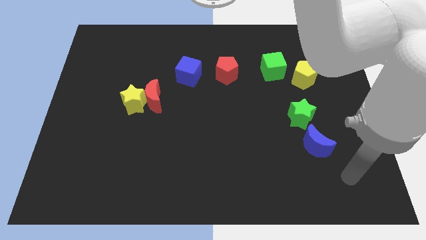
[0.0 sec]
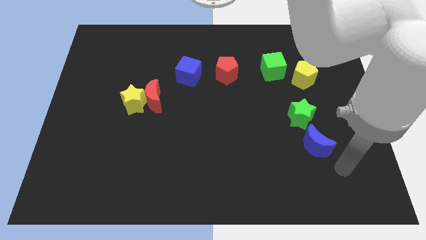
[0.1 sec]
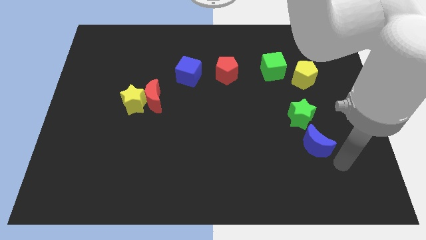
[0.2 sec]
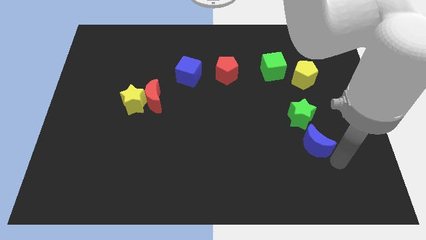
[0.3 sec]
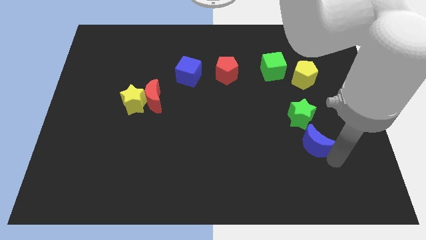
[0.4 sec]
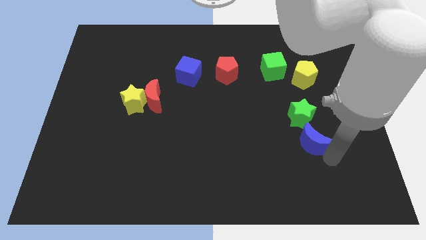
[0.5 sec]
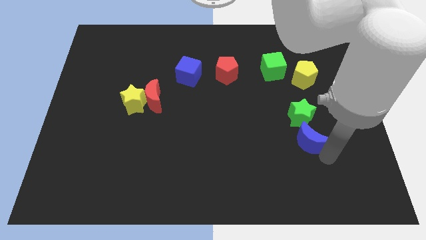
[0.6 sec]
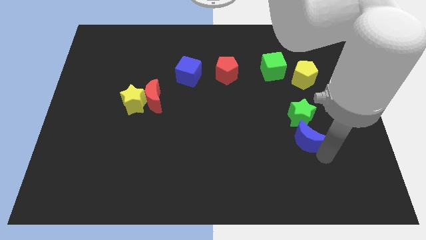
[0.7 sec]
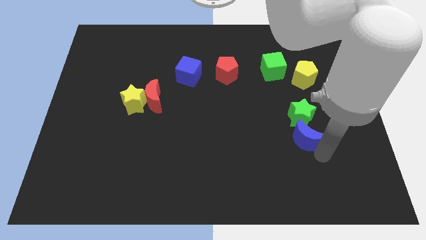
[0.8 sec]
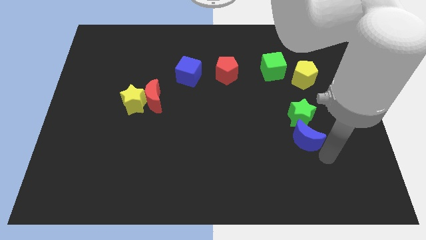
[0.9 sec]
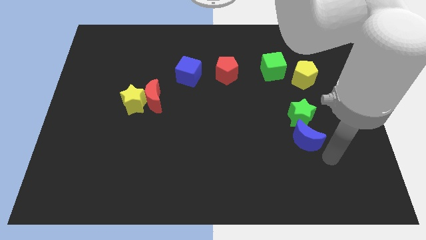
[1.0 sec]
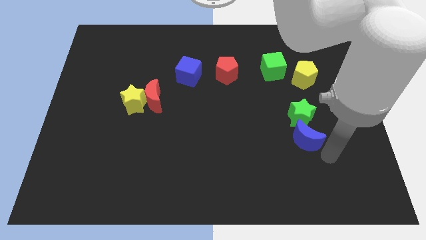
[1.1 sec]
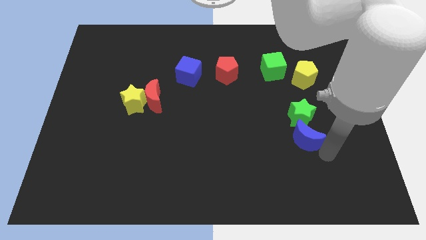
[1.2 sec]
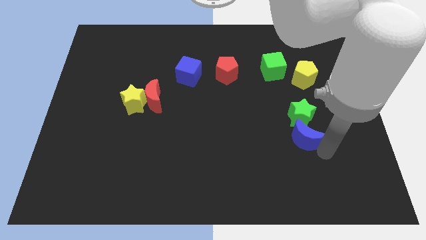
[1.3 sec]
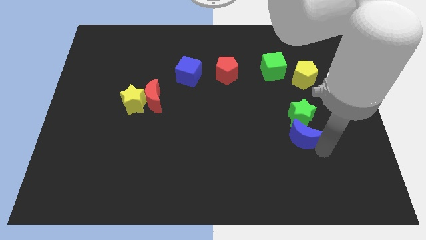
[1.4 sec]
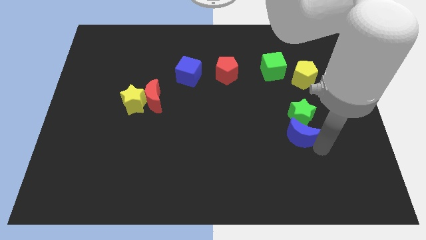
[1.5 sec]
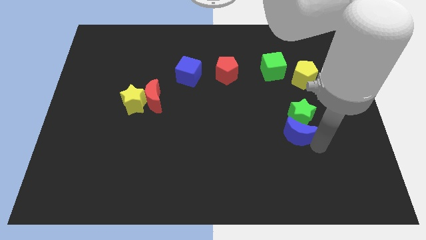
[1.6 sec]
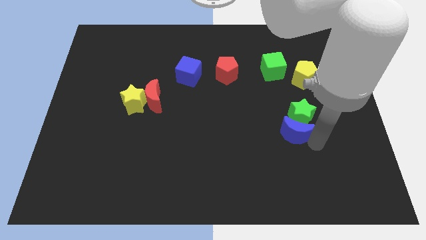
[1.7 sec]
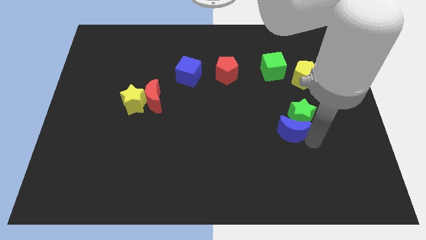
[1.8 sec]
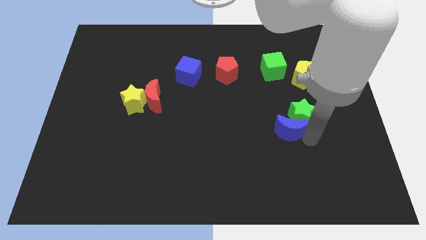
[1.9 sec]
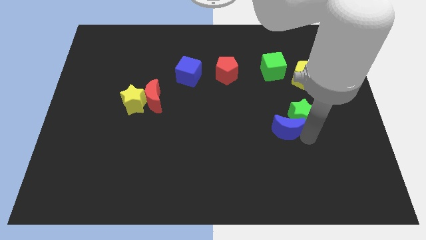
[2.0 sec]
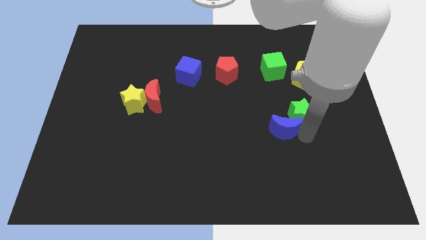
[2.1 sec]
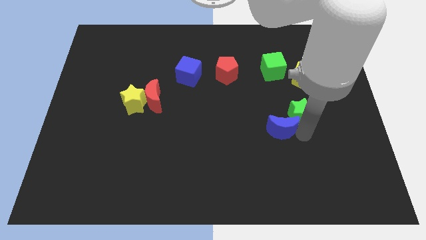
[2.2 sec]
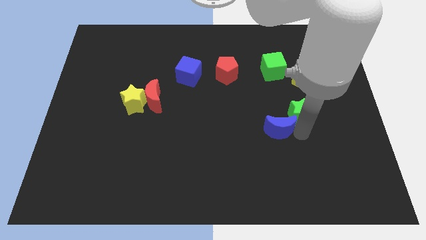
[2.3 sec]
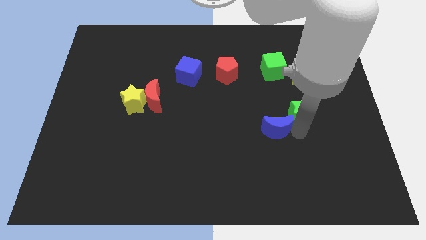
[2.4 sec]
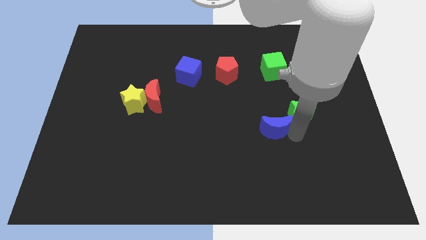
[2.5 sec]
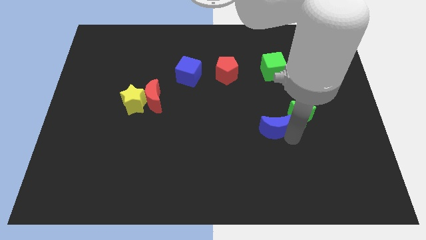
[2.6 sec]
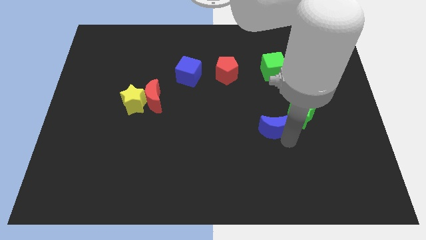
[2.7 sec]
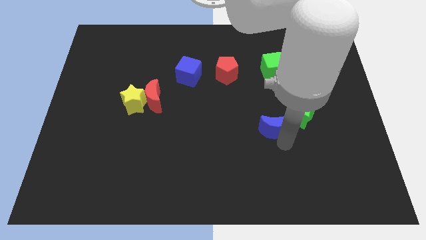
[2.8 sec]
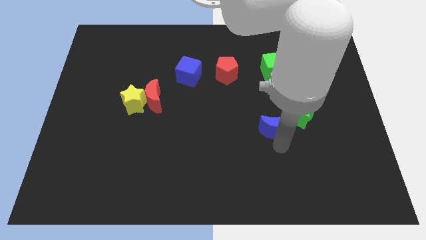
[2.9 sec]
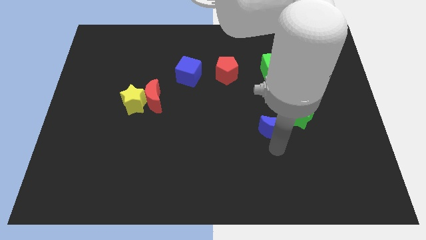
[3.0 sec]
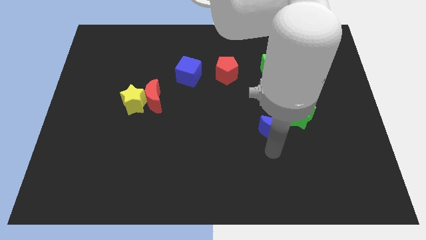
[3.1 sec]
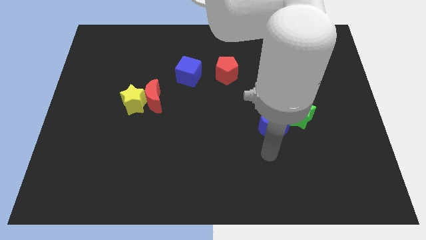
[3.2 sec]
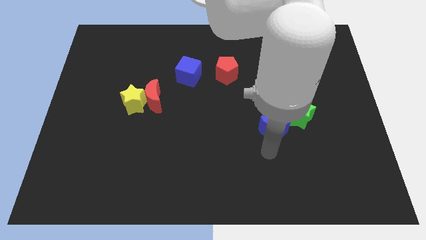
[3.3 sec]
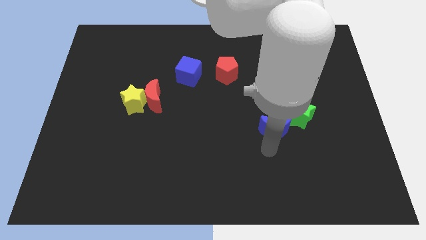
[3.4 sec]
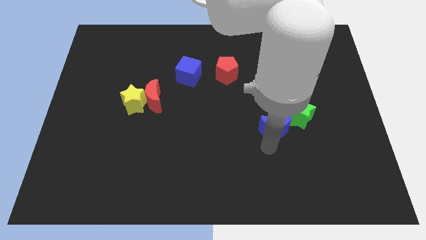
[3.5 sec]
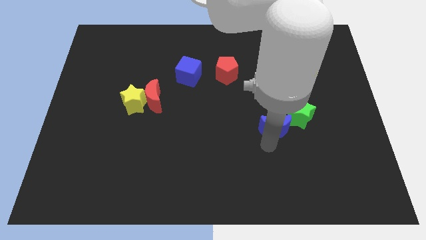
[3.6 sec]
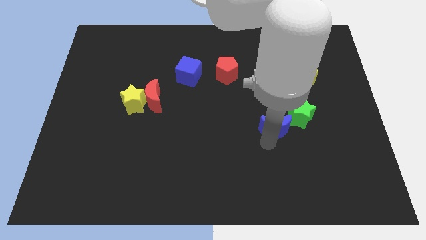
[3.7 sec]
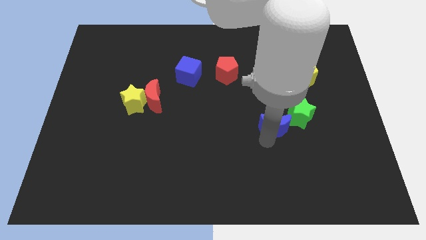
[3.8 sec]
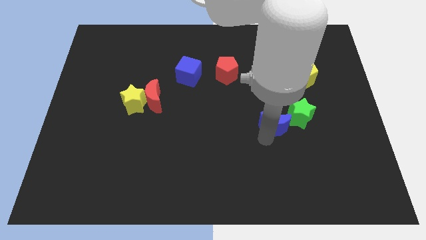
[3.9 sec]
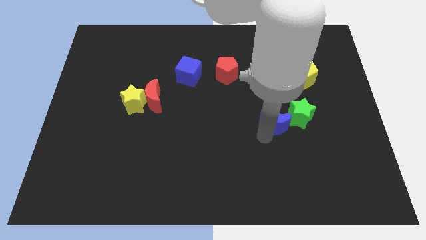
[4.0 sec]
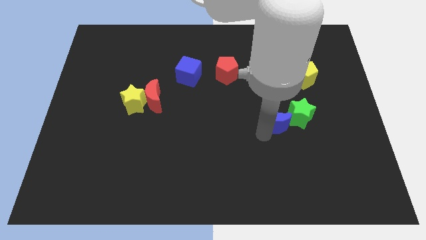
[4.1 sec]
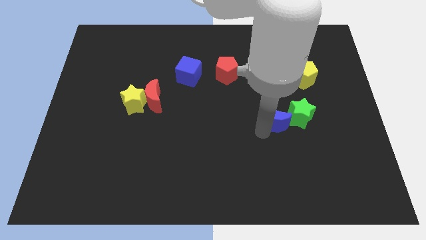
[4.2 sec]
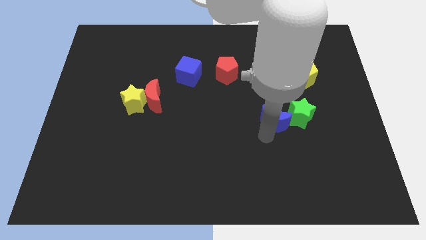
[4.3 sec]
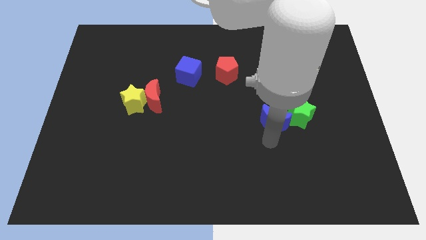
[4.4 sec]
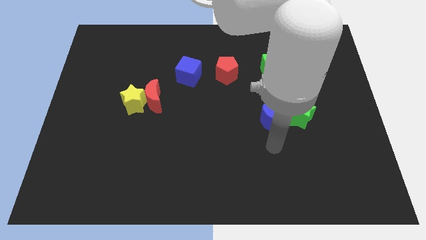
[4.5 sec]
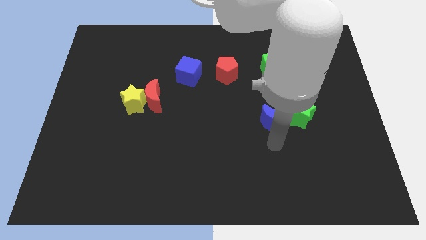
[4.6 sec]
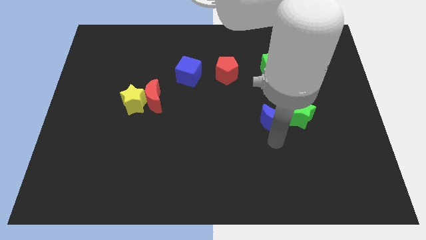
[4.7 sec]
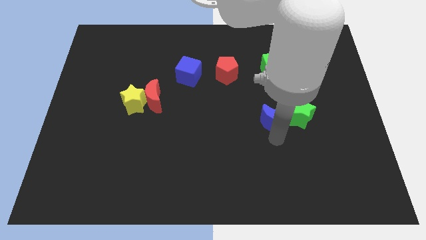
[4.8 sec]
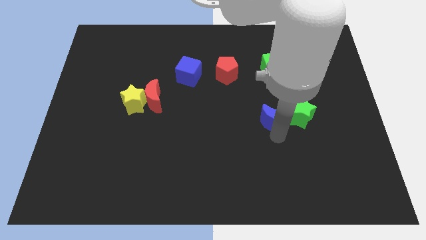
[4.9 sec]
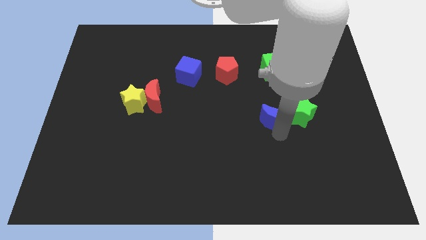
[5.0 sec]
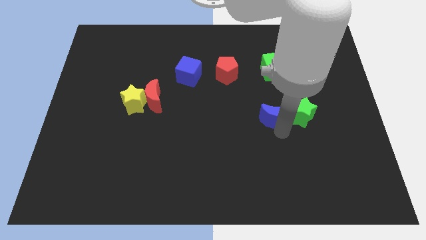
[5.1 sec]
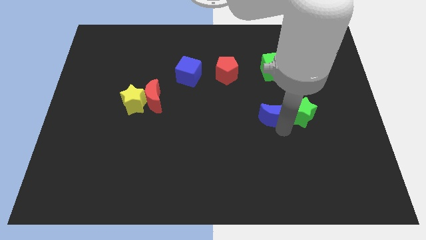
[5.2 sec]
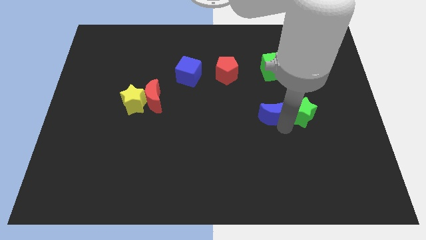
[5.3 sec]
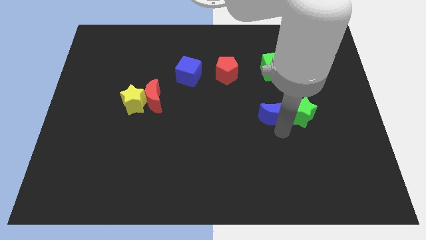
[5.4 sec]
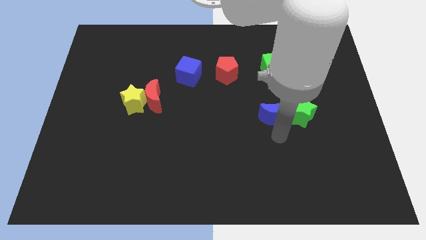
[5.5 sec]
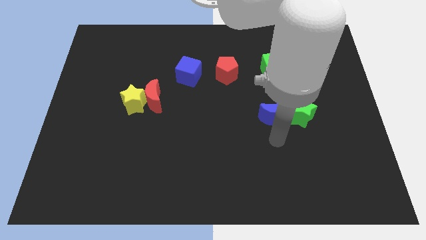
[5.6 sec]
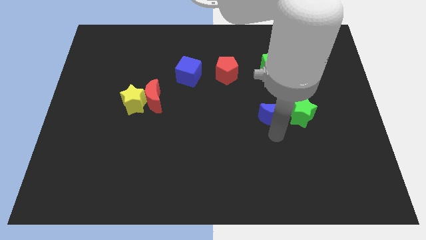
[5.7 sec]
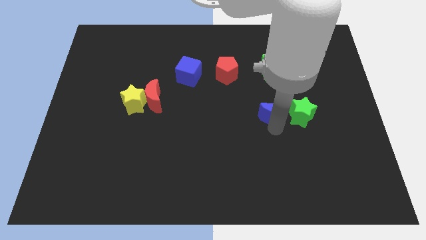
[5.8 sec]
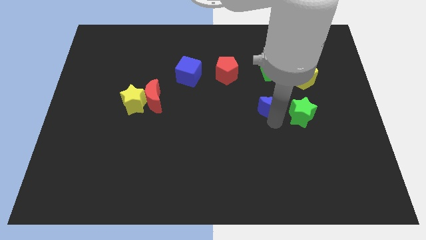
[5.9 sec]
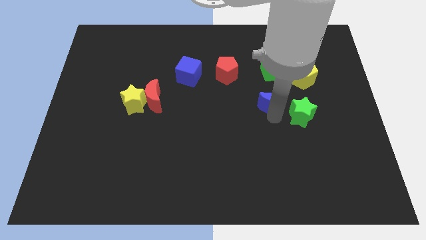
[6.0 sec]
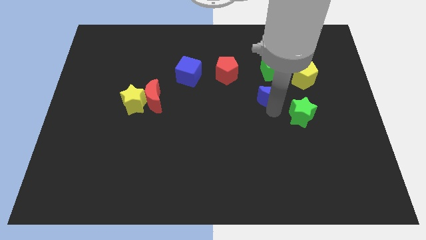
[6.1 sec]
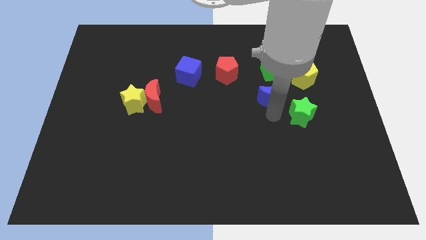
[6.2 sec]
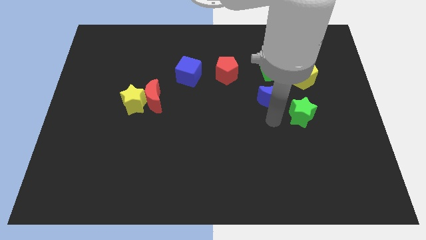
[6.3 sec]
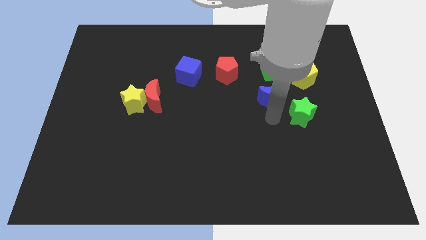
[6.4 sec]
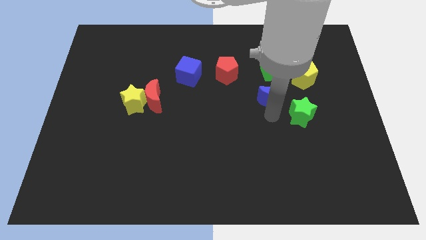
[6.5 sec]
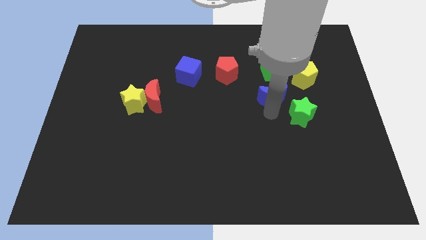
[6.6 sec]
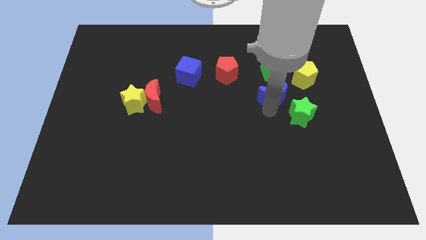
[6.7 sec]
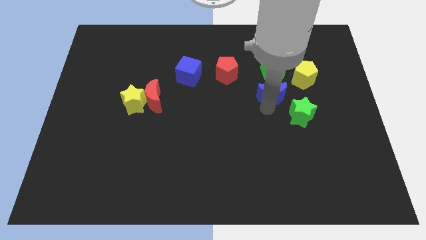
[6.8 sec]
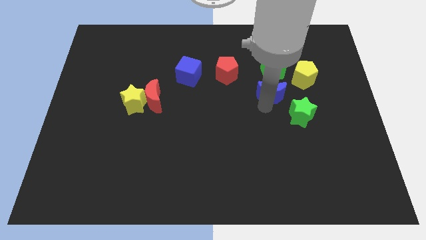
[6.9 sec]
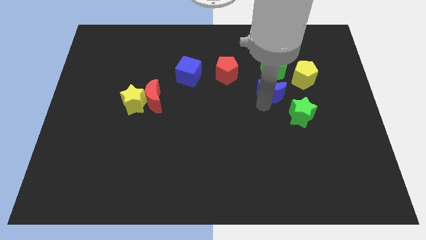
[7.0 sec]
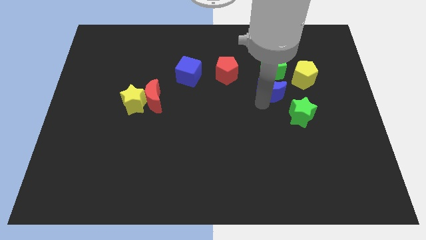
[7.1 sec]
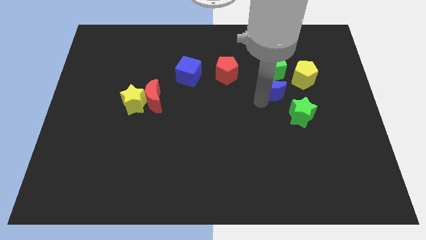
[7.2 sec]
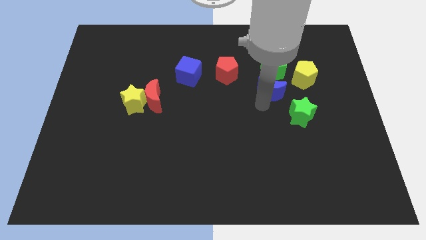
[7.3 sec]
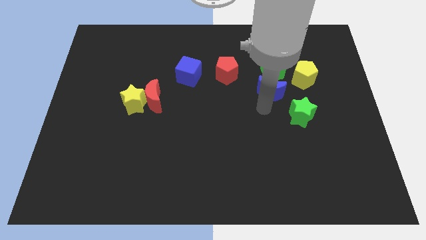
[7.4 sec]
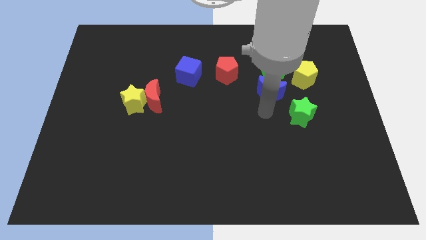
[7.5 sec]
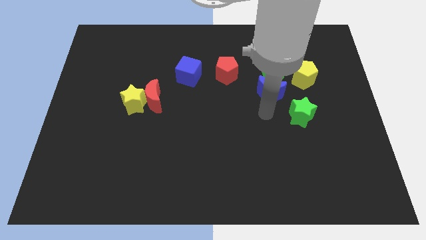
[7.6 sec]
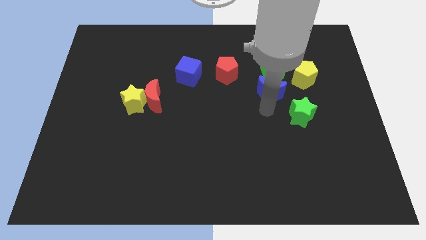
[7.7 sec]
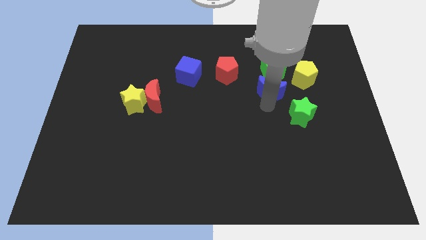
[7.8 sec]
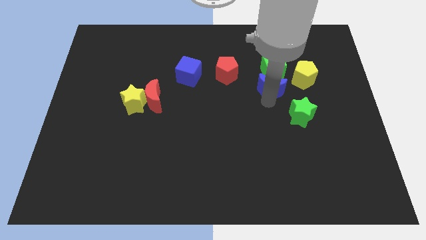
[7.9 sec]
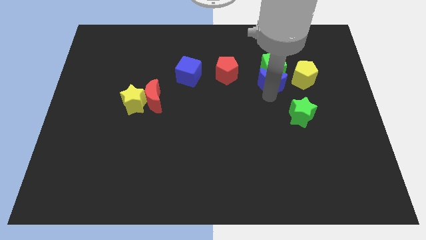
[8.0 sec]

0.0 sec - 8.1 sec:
move the blue moon to the green cube
